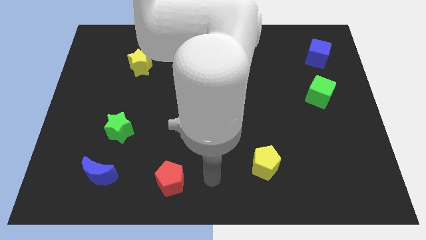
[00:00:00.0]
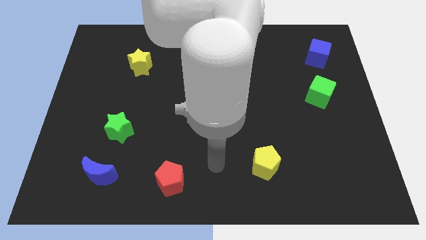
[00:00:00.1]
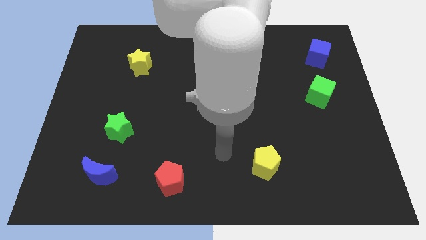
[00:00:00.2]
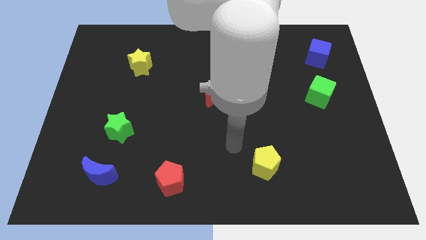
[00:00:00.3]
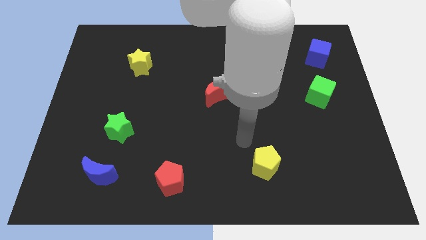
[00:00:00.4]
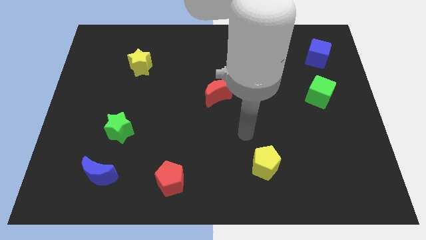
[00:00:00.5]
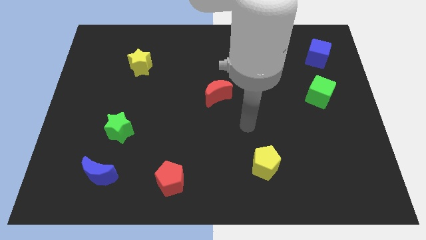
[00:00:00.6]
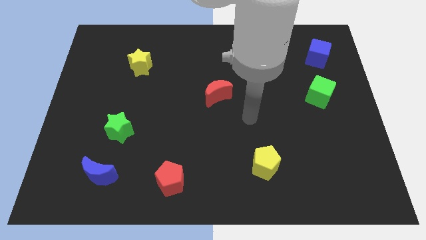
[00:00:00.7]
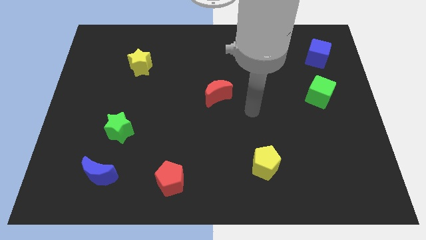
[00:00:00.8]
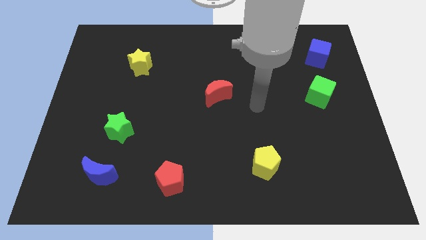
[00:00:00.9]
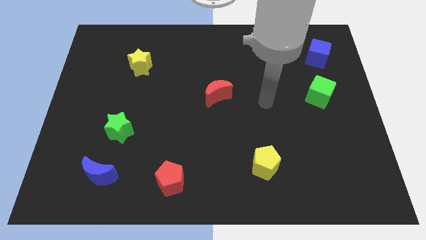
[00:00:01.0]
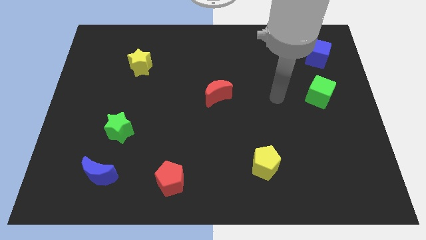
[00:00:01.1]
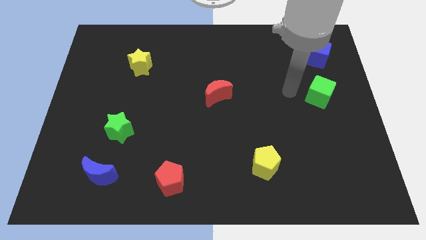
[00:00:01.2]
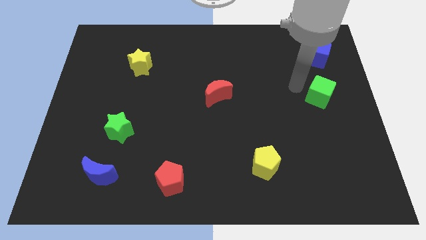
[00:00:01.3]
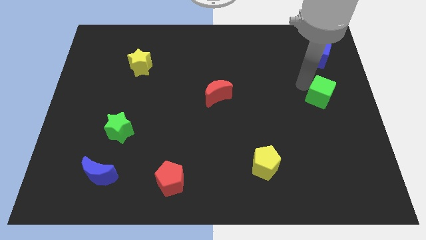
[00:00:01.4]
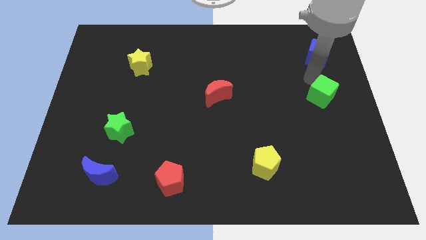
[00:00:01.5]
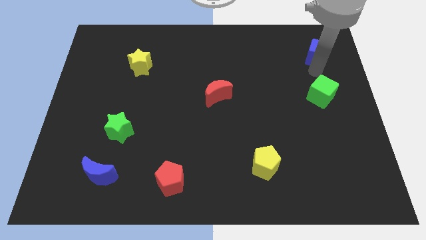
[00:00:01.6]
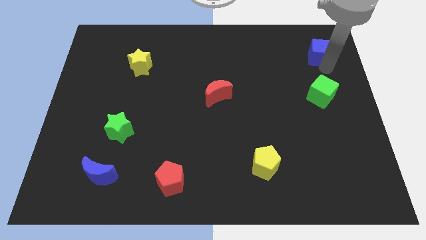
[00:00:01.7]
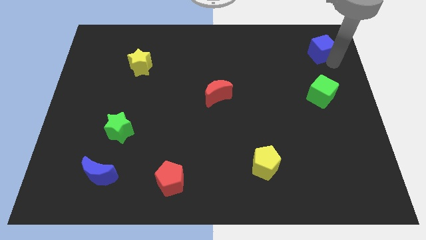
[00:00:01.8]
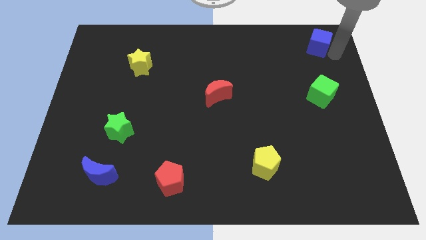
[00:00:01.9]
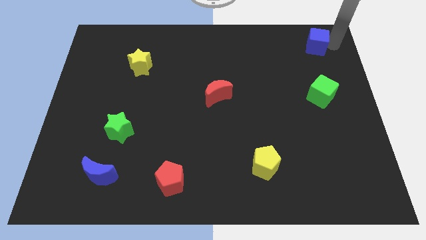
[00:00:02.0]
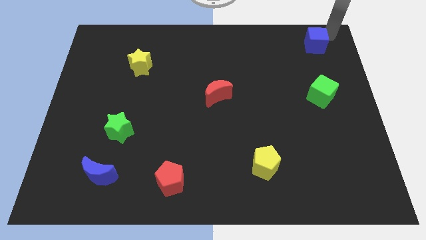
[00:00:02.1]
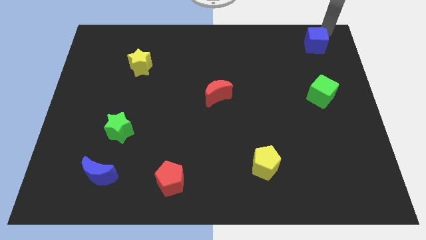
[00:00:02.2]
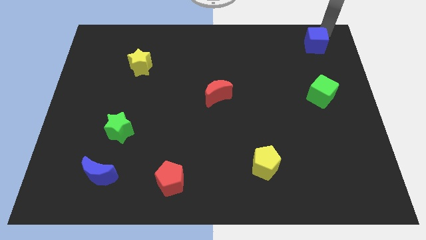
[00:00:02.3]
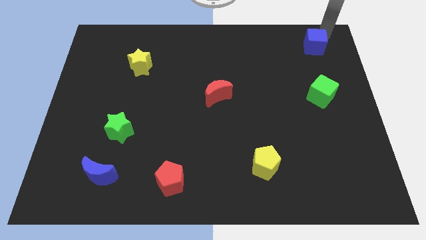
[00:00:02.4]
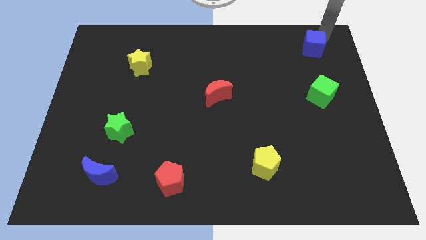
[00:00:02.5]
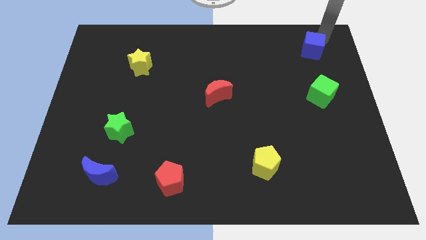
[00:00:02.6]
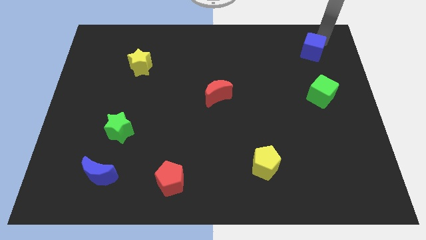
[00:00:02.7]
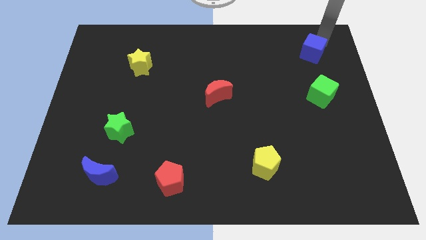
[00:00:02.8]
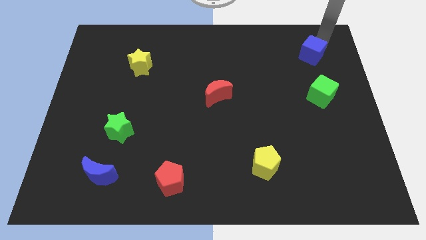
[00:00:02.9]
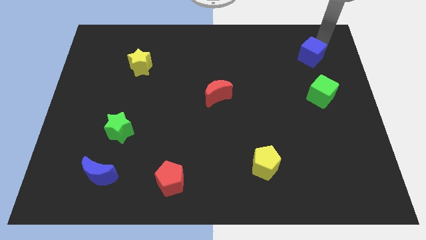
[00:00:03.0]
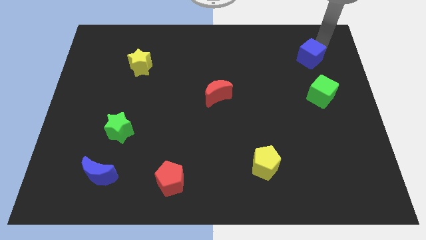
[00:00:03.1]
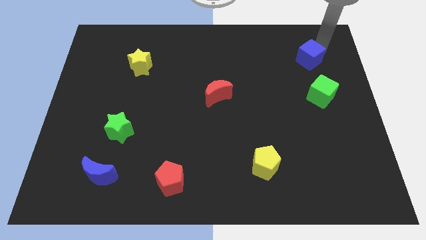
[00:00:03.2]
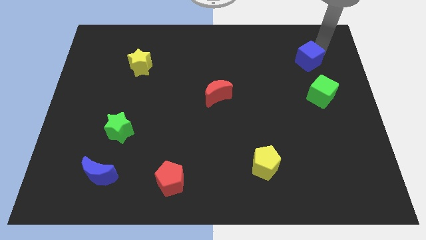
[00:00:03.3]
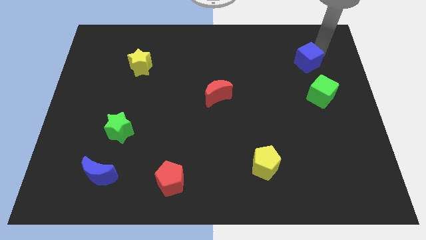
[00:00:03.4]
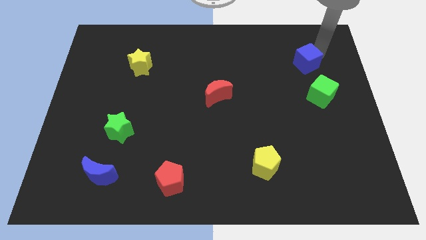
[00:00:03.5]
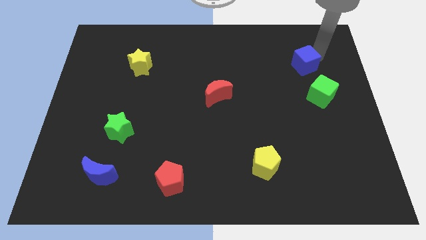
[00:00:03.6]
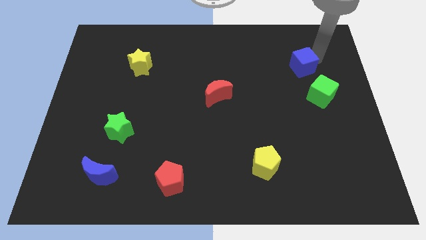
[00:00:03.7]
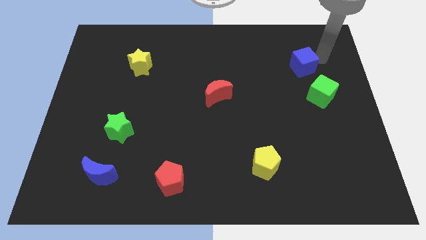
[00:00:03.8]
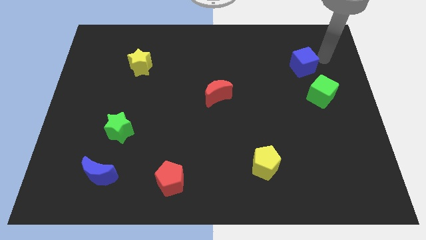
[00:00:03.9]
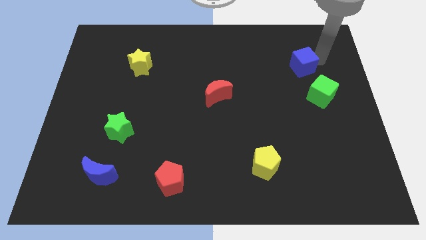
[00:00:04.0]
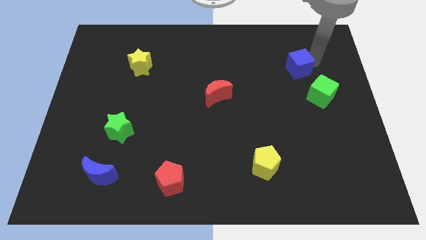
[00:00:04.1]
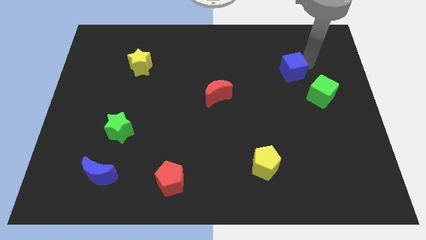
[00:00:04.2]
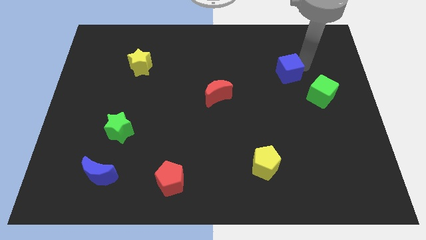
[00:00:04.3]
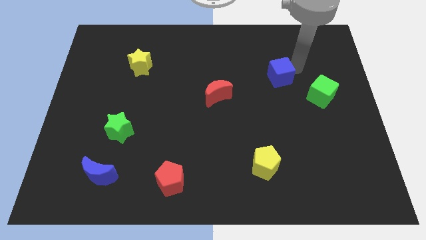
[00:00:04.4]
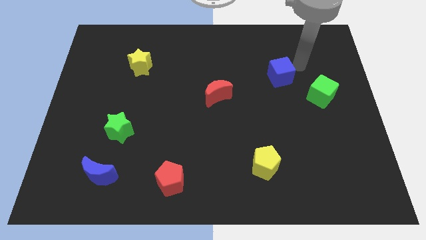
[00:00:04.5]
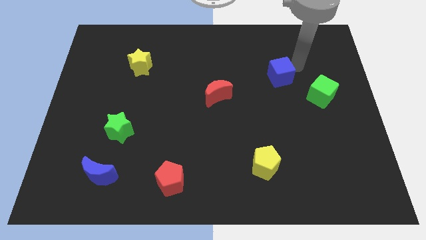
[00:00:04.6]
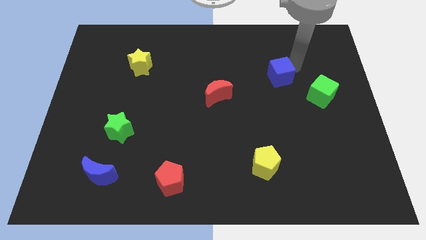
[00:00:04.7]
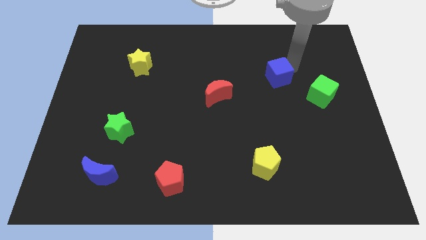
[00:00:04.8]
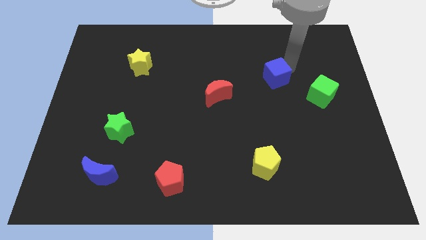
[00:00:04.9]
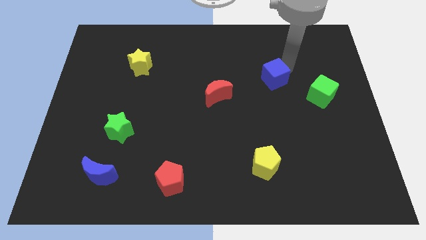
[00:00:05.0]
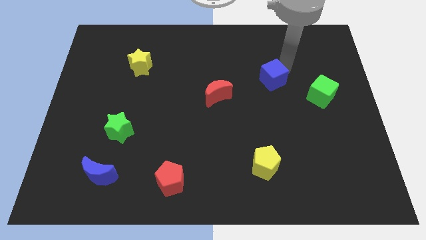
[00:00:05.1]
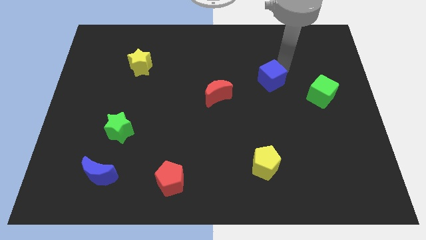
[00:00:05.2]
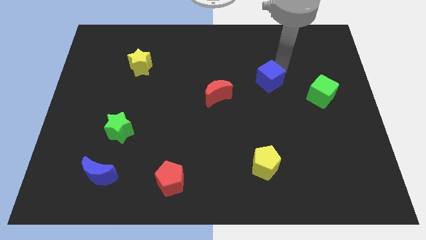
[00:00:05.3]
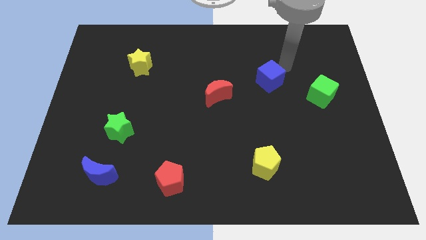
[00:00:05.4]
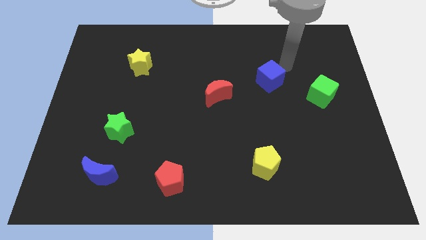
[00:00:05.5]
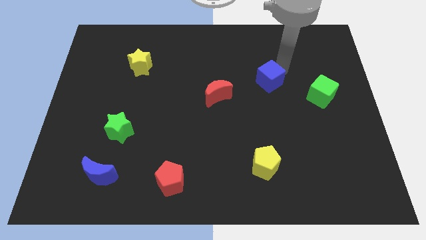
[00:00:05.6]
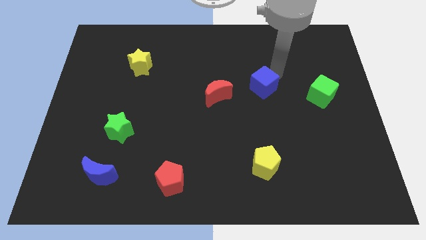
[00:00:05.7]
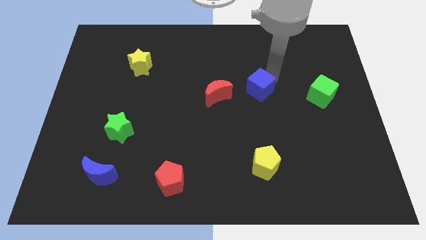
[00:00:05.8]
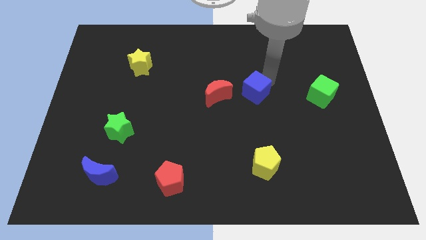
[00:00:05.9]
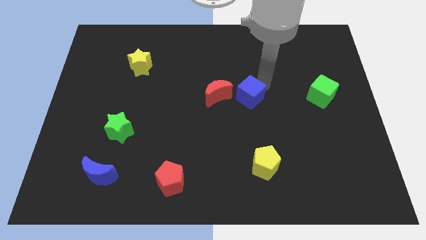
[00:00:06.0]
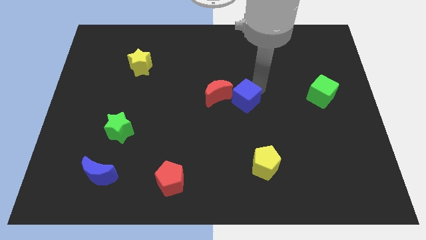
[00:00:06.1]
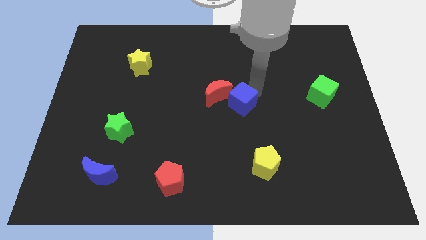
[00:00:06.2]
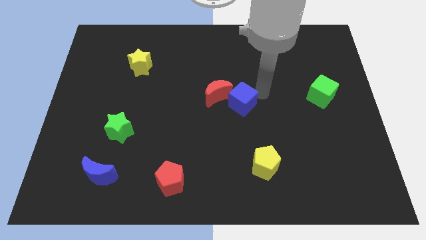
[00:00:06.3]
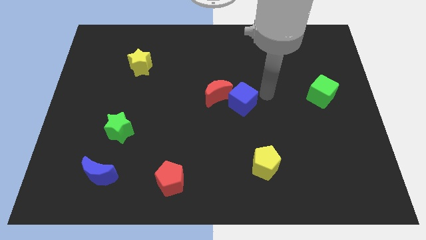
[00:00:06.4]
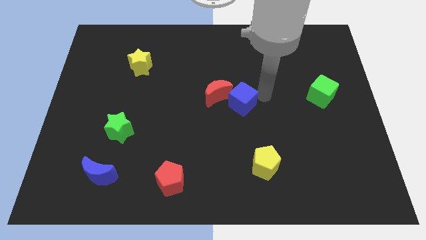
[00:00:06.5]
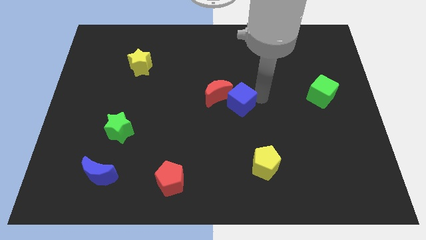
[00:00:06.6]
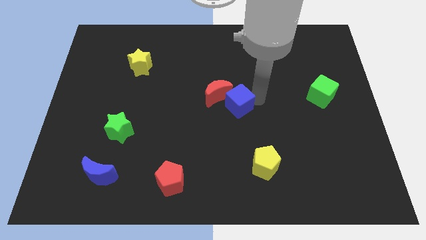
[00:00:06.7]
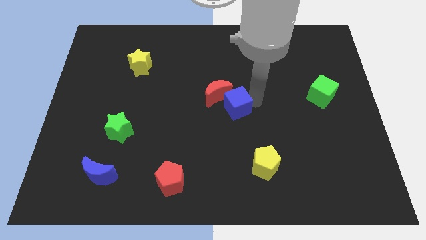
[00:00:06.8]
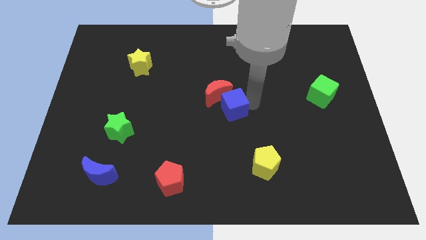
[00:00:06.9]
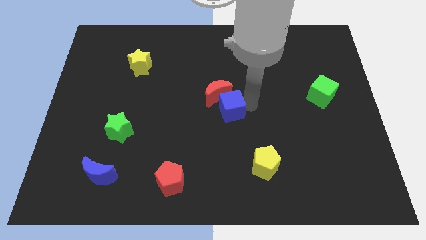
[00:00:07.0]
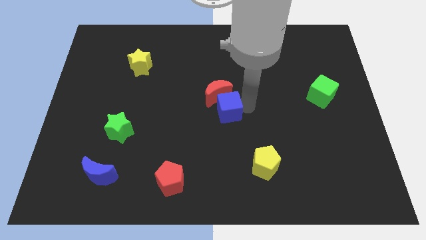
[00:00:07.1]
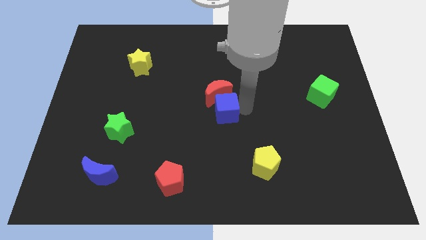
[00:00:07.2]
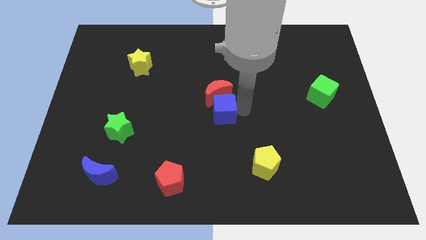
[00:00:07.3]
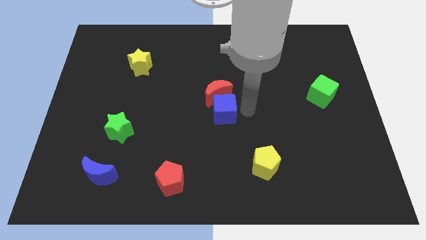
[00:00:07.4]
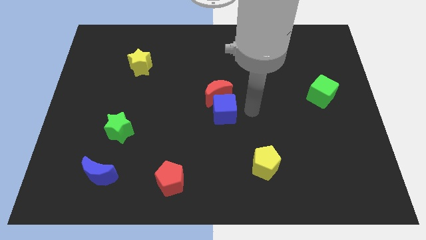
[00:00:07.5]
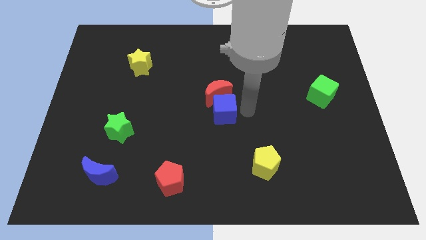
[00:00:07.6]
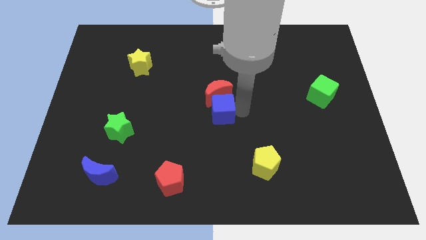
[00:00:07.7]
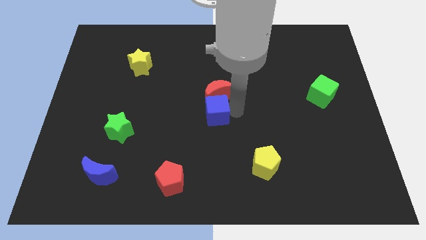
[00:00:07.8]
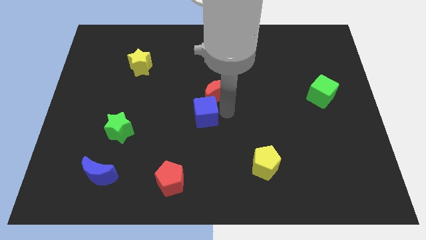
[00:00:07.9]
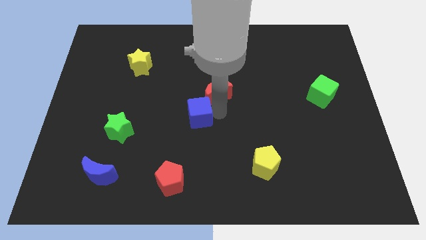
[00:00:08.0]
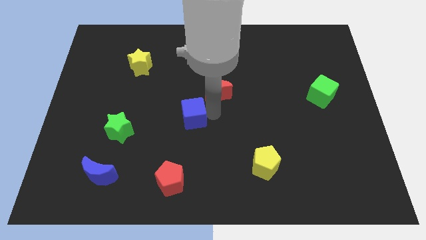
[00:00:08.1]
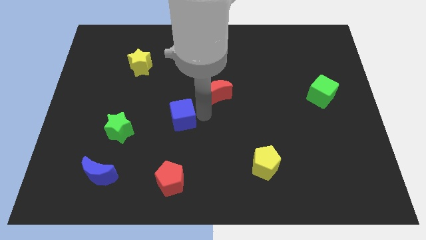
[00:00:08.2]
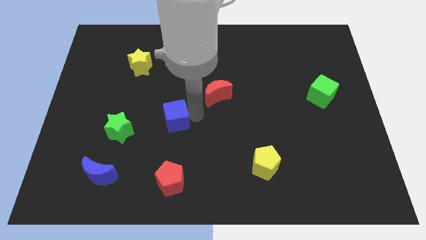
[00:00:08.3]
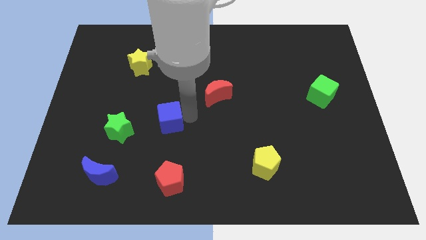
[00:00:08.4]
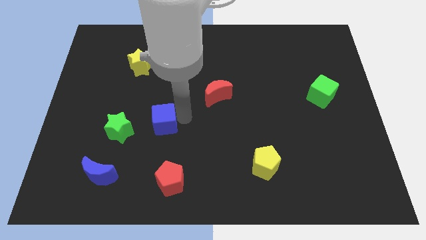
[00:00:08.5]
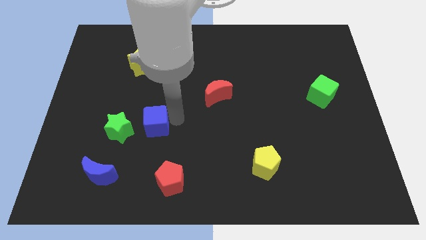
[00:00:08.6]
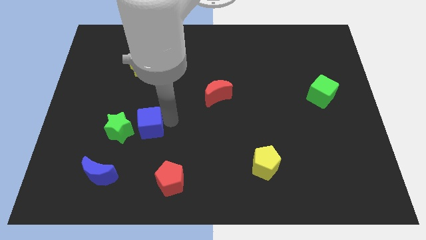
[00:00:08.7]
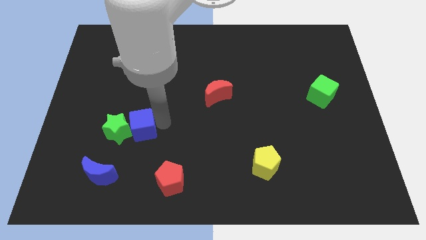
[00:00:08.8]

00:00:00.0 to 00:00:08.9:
put the blue cube to the green star
